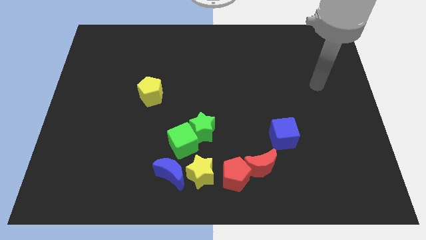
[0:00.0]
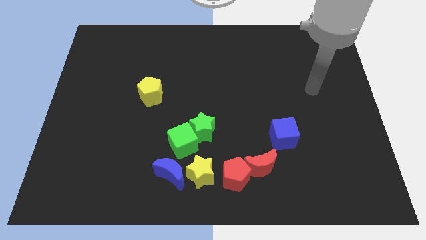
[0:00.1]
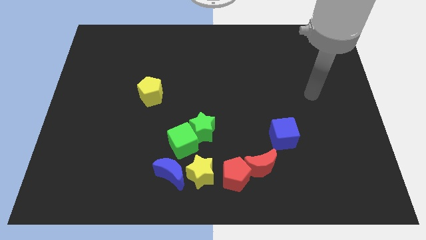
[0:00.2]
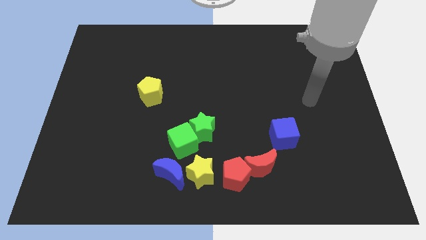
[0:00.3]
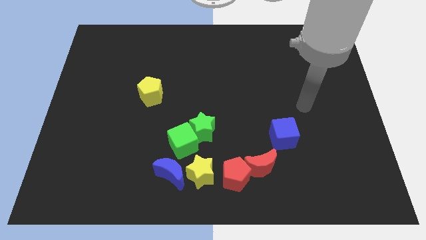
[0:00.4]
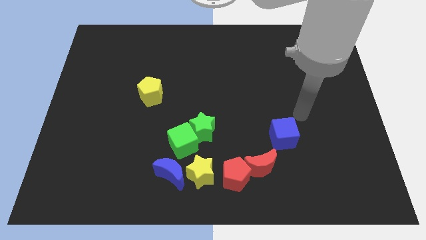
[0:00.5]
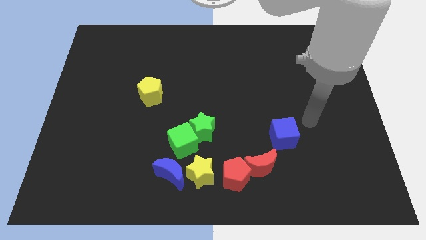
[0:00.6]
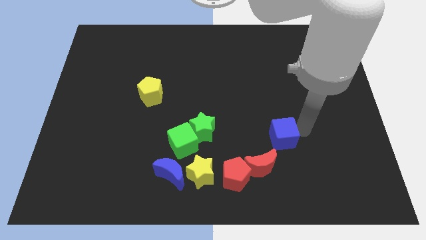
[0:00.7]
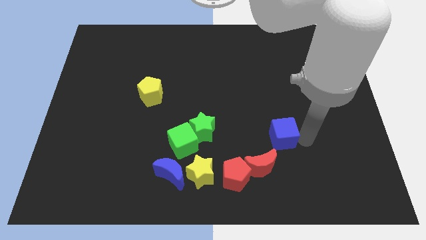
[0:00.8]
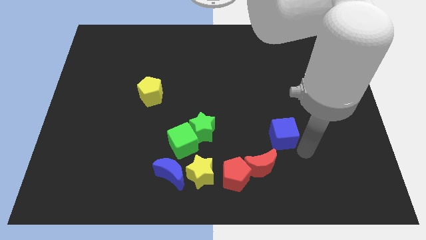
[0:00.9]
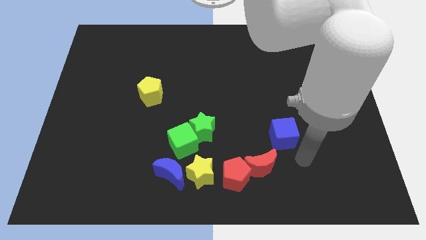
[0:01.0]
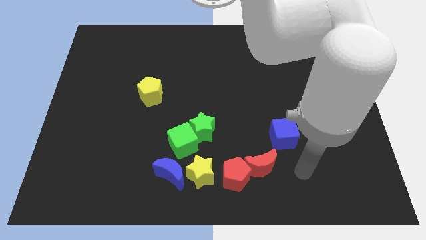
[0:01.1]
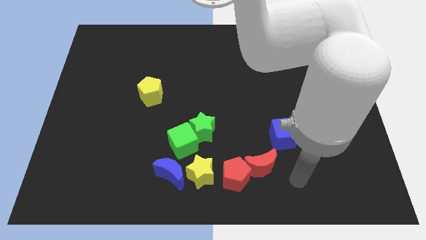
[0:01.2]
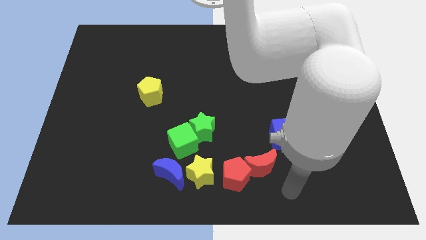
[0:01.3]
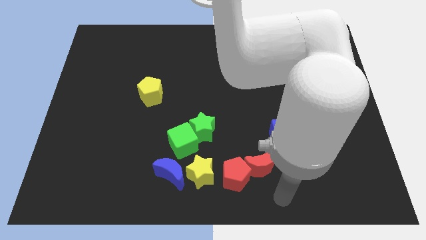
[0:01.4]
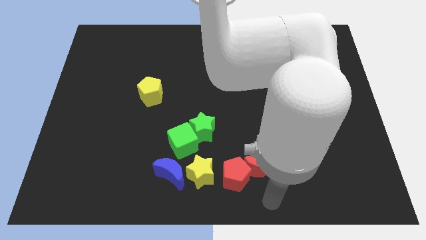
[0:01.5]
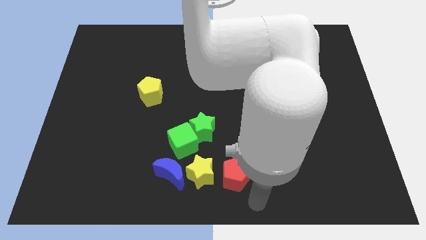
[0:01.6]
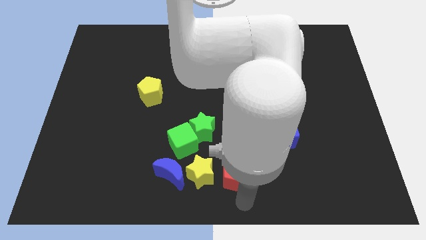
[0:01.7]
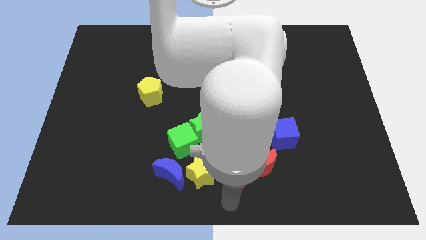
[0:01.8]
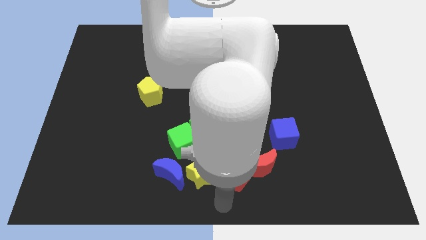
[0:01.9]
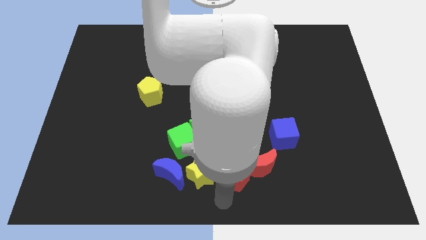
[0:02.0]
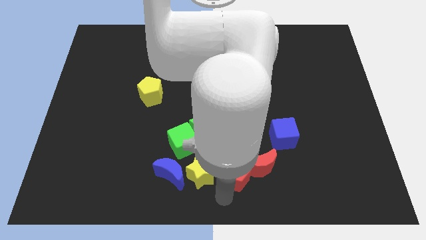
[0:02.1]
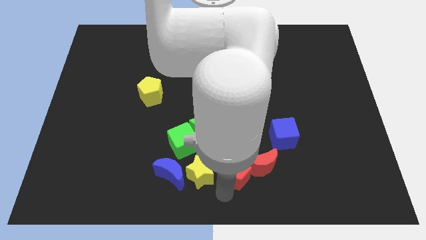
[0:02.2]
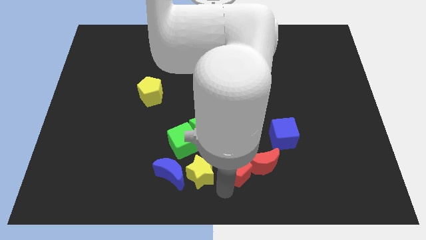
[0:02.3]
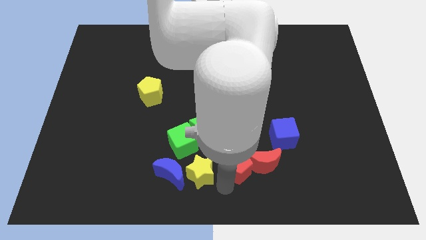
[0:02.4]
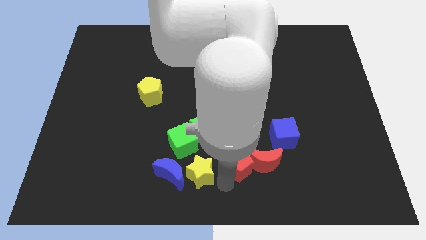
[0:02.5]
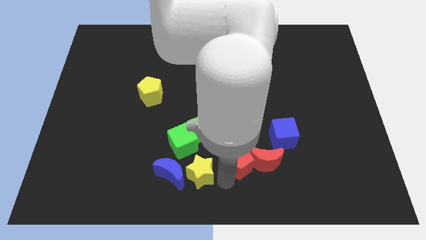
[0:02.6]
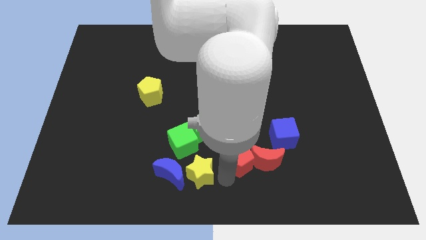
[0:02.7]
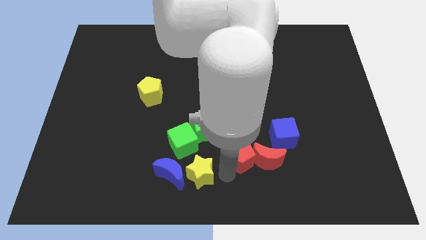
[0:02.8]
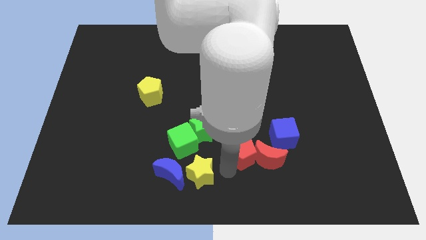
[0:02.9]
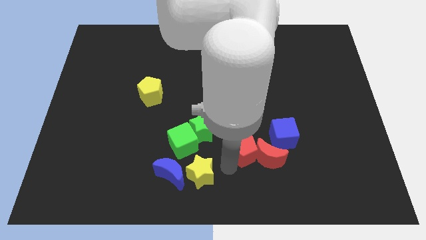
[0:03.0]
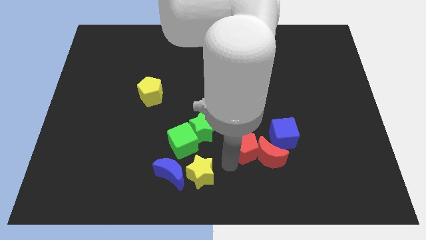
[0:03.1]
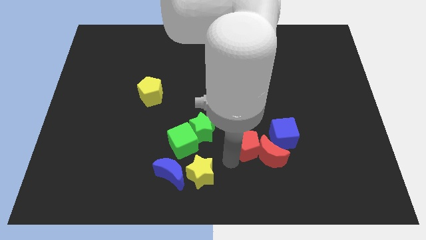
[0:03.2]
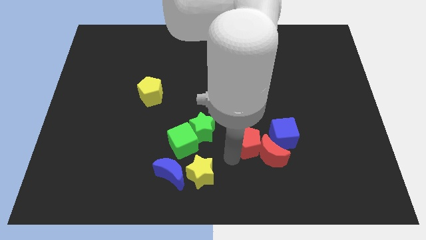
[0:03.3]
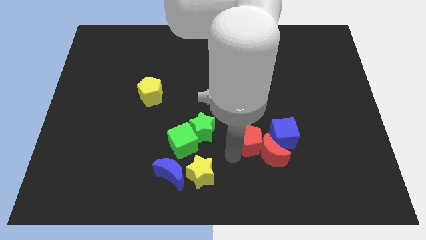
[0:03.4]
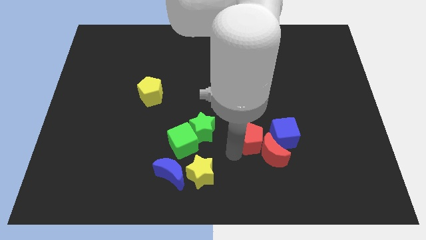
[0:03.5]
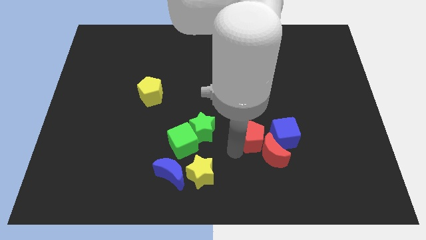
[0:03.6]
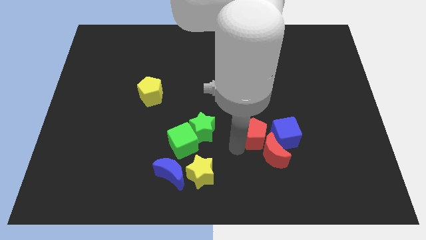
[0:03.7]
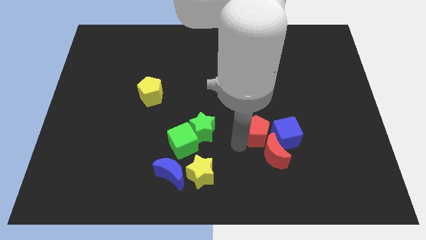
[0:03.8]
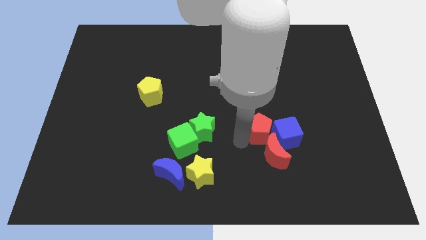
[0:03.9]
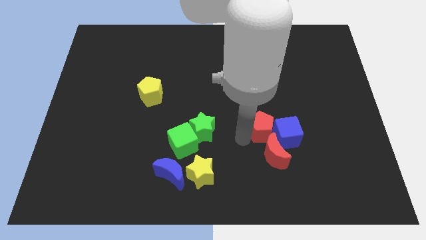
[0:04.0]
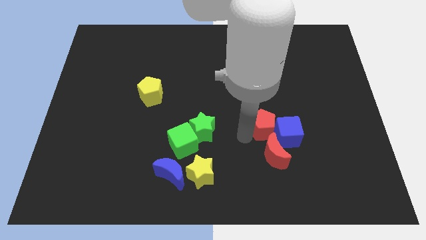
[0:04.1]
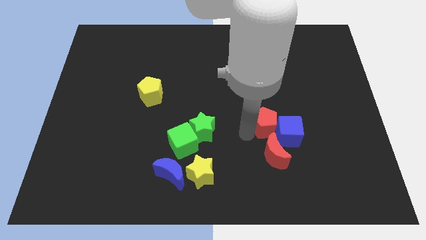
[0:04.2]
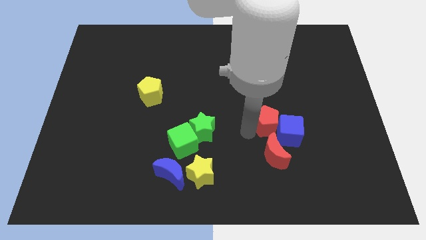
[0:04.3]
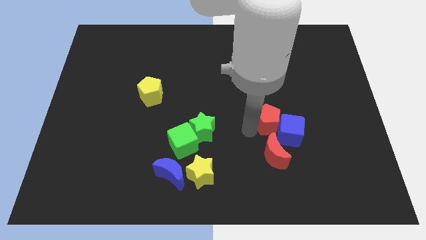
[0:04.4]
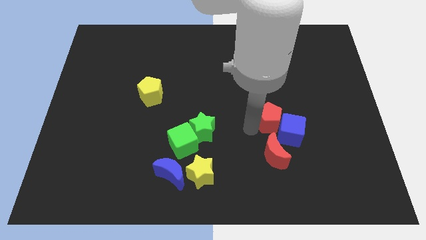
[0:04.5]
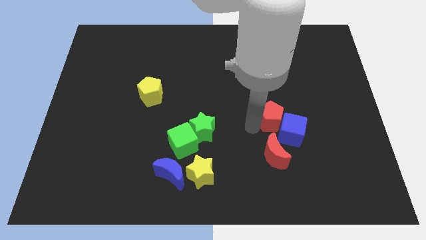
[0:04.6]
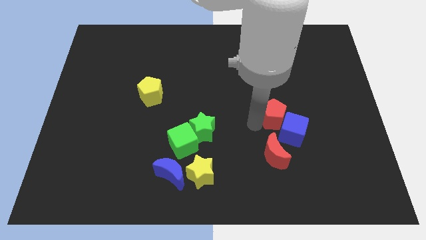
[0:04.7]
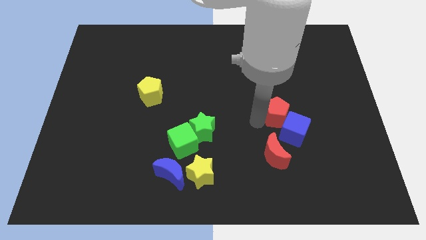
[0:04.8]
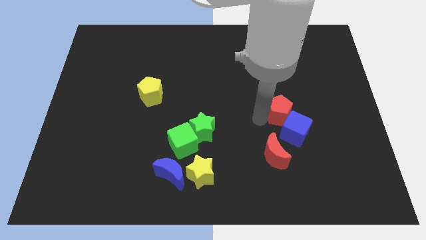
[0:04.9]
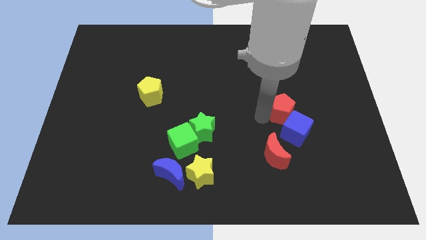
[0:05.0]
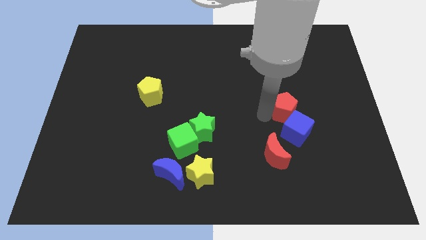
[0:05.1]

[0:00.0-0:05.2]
slide the red pentagon diagonally upwards and right

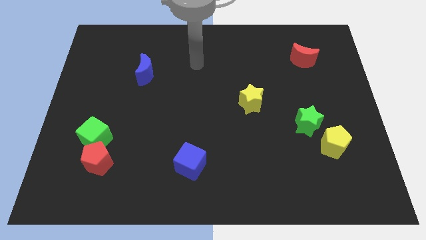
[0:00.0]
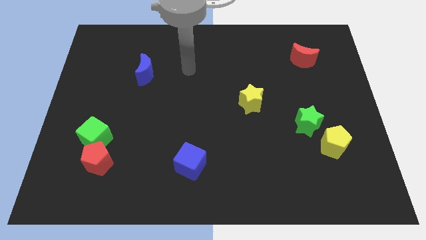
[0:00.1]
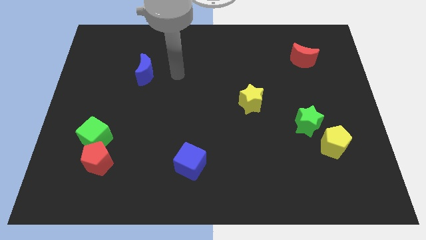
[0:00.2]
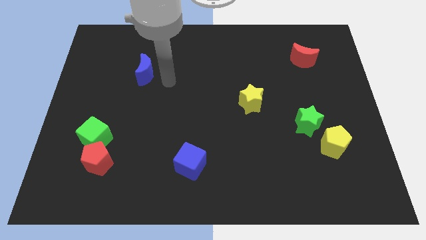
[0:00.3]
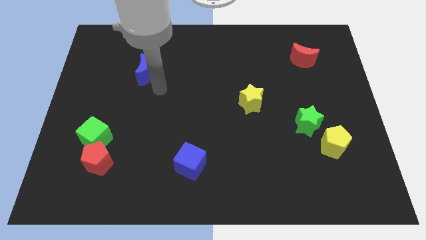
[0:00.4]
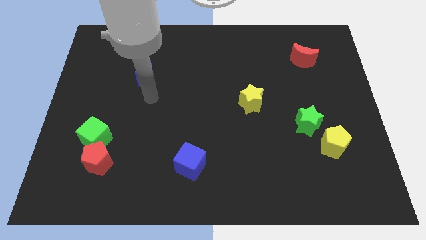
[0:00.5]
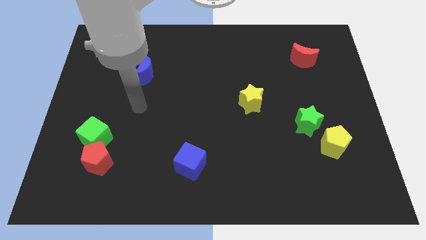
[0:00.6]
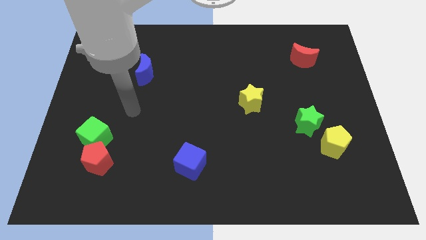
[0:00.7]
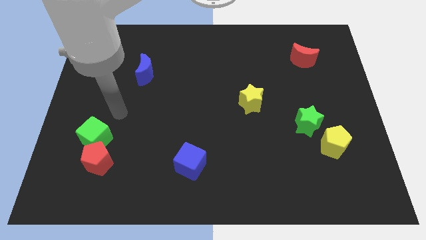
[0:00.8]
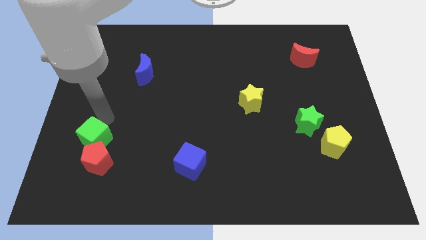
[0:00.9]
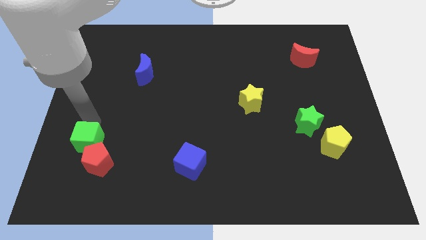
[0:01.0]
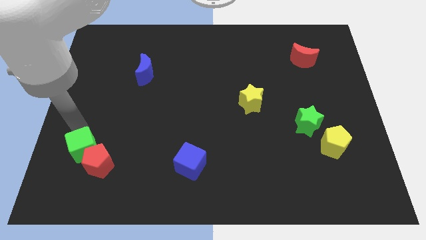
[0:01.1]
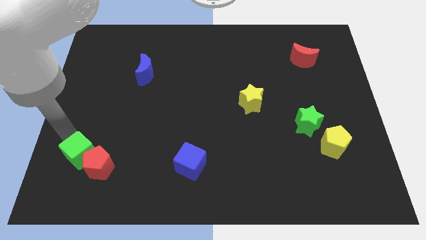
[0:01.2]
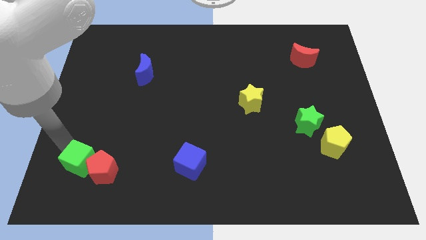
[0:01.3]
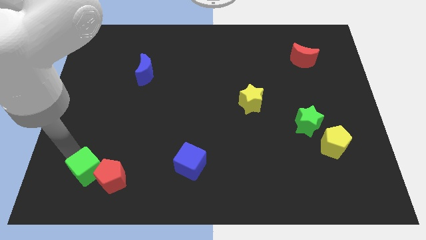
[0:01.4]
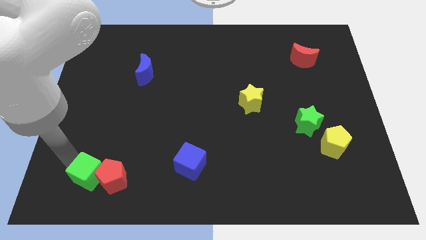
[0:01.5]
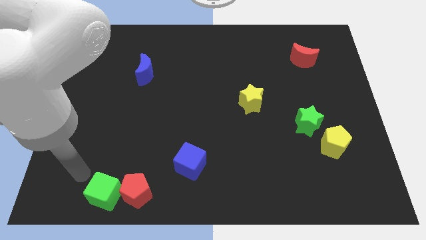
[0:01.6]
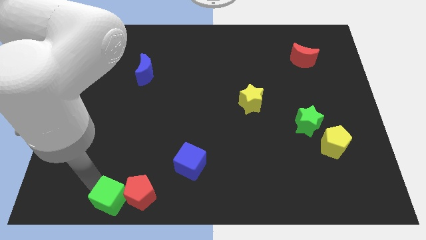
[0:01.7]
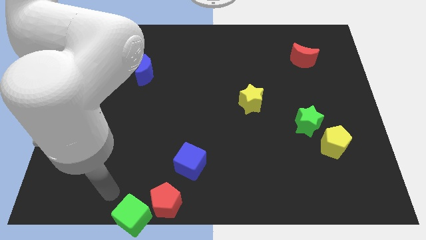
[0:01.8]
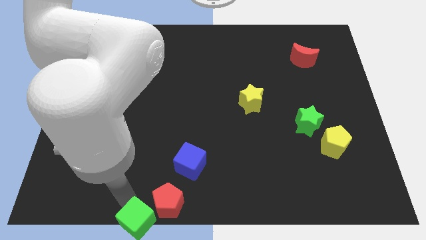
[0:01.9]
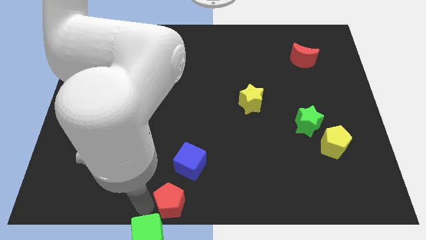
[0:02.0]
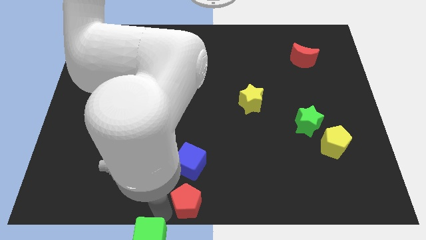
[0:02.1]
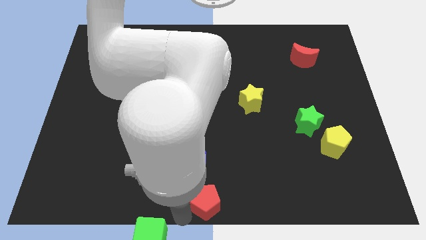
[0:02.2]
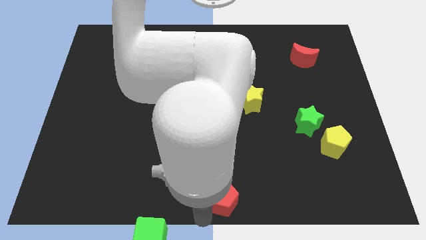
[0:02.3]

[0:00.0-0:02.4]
slide the red pentagon right

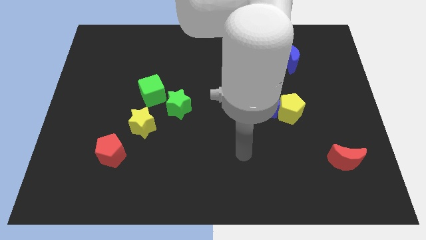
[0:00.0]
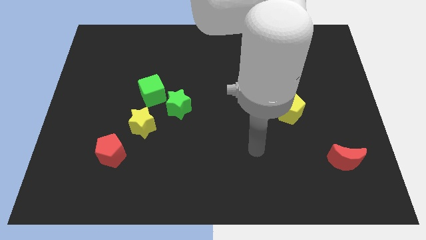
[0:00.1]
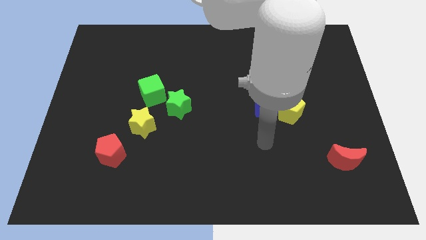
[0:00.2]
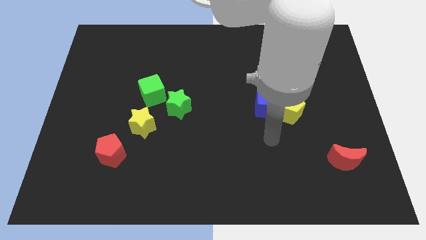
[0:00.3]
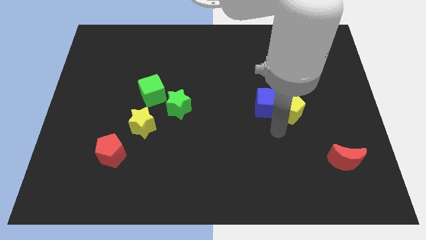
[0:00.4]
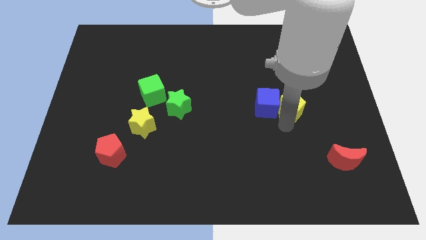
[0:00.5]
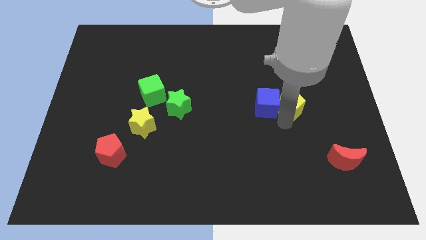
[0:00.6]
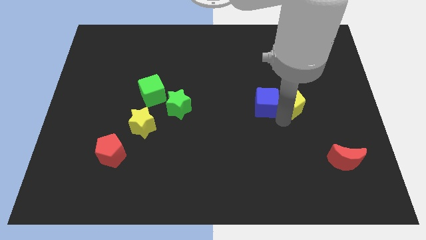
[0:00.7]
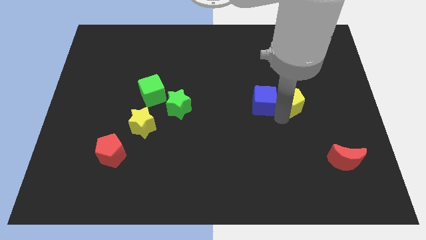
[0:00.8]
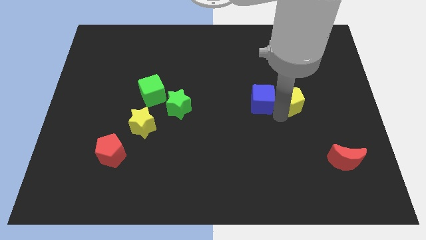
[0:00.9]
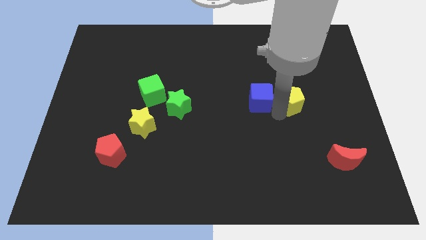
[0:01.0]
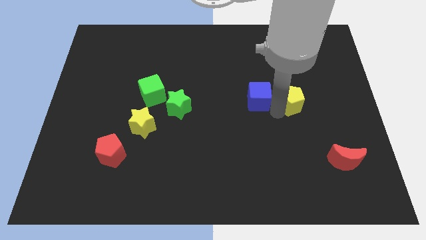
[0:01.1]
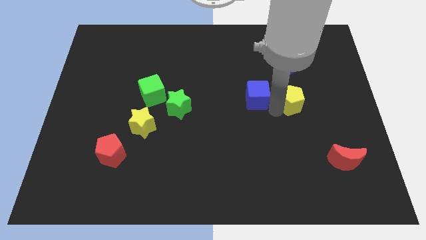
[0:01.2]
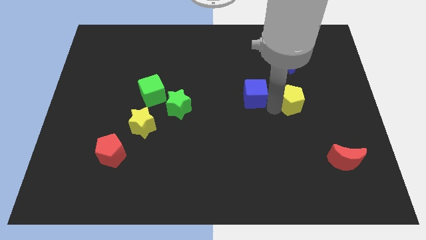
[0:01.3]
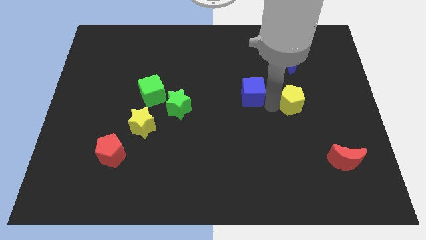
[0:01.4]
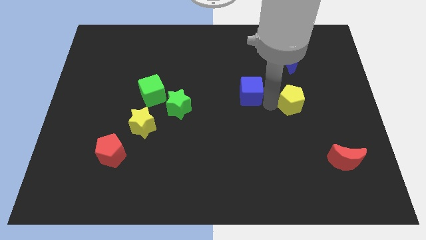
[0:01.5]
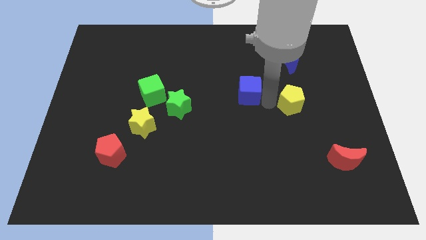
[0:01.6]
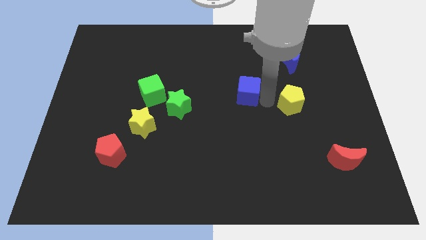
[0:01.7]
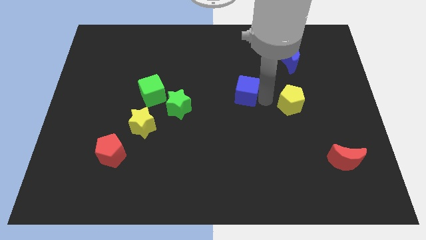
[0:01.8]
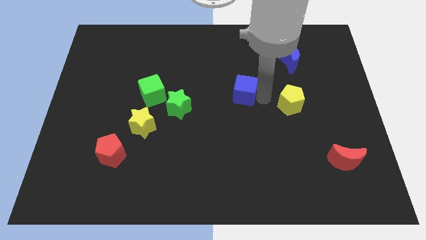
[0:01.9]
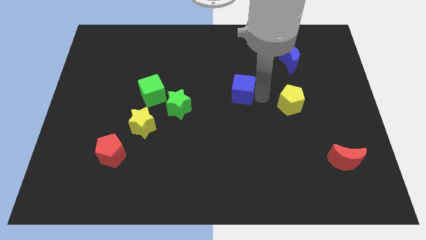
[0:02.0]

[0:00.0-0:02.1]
move the blue cube upwards and left diagonally slightly
